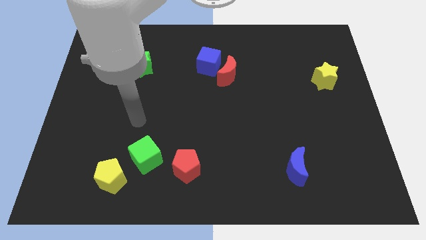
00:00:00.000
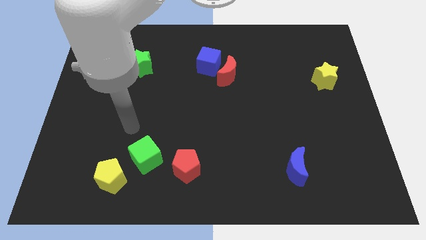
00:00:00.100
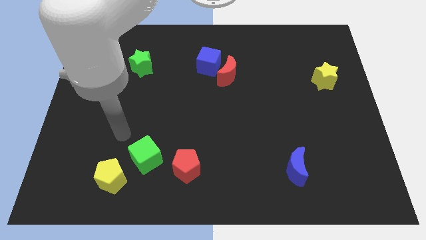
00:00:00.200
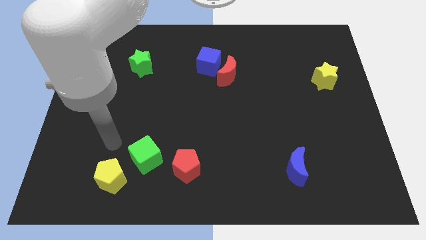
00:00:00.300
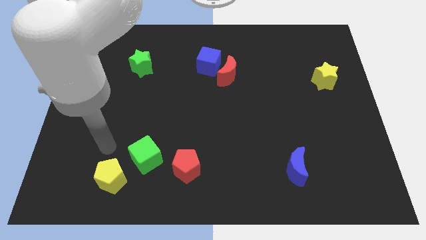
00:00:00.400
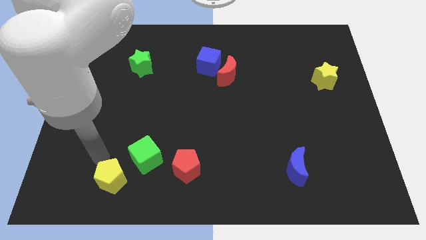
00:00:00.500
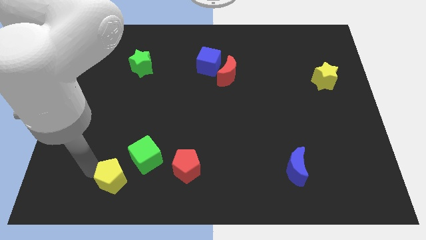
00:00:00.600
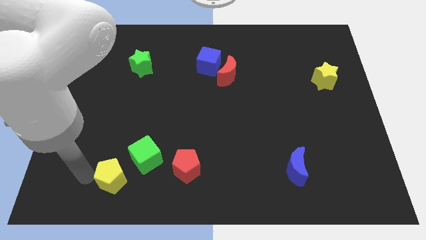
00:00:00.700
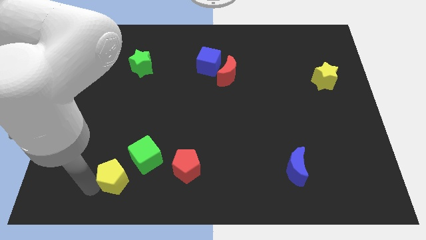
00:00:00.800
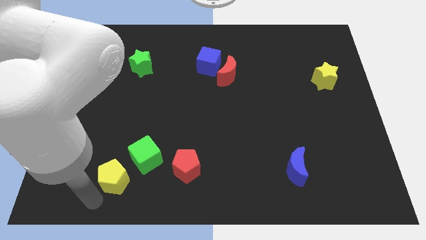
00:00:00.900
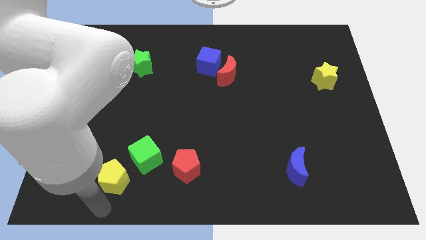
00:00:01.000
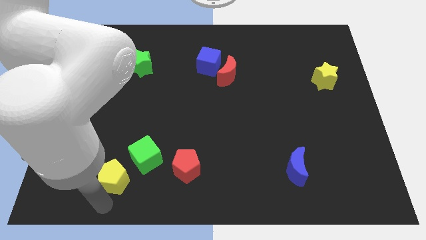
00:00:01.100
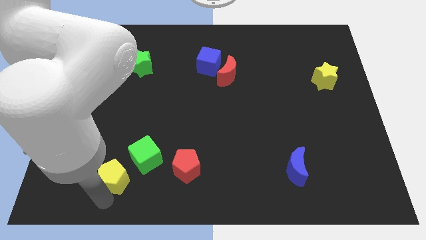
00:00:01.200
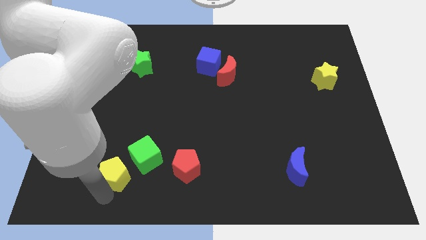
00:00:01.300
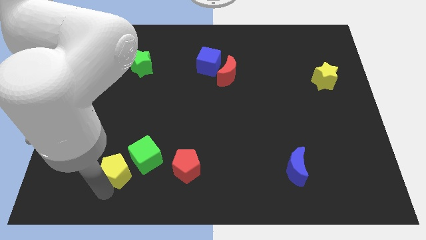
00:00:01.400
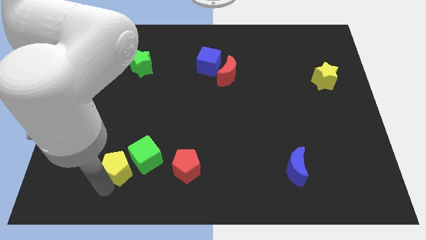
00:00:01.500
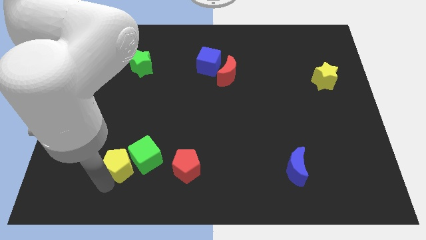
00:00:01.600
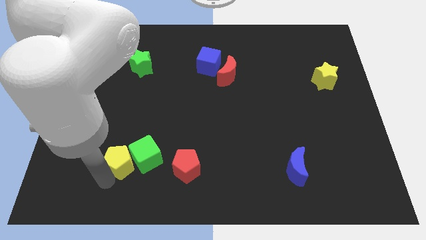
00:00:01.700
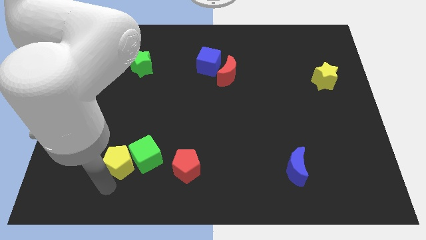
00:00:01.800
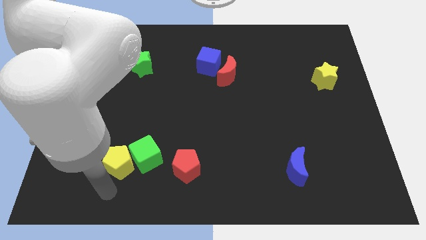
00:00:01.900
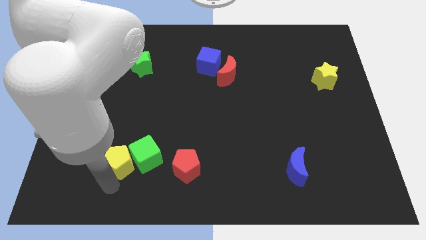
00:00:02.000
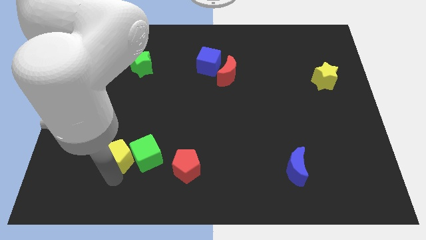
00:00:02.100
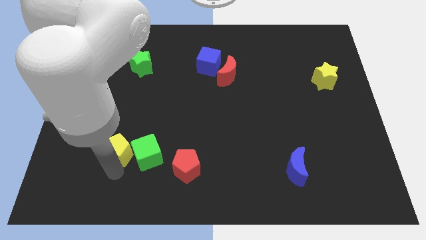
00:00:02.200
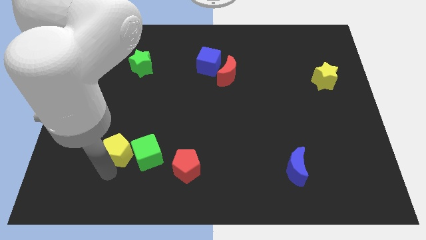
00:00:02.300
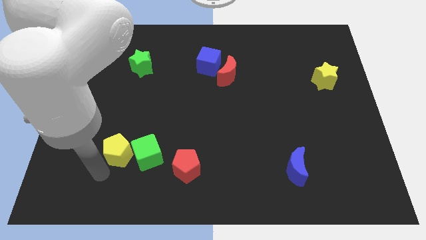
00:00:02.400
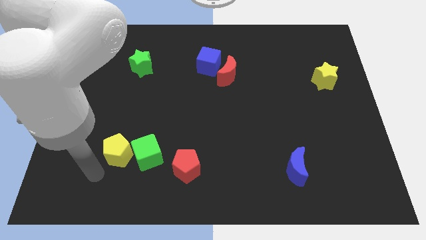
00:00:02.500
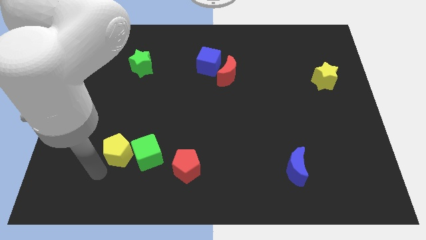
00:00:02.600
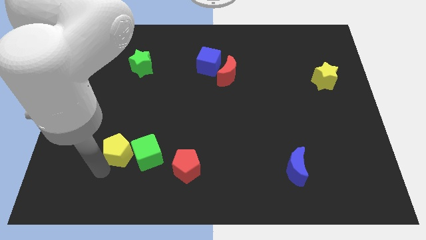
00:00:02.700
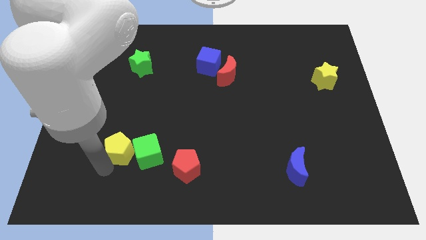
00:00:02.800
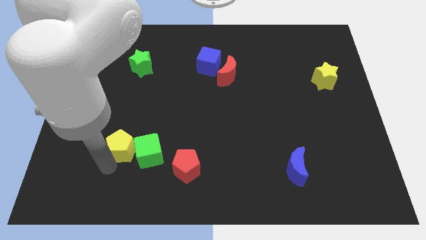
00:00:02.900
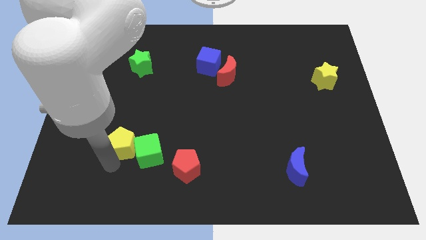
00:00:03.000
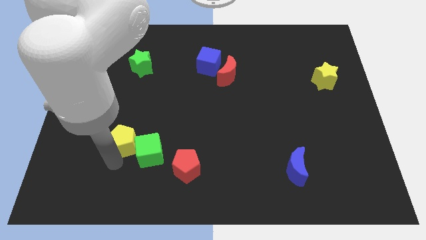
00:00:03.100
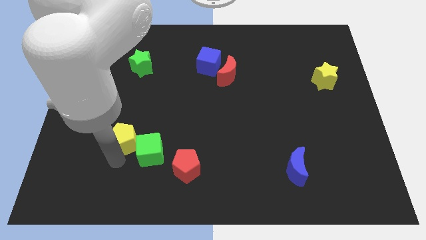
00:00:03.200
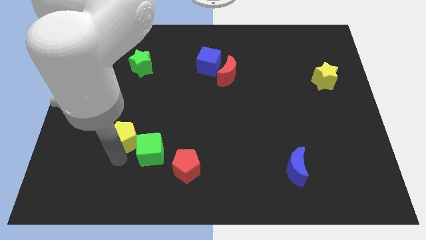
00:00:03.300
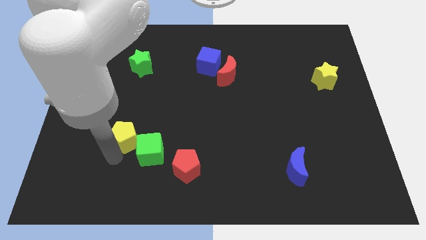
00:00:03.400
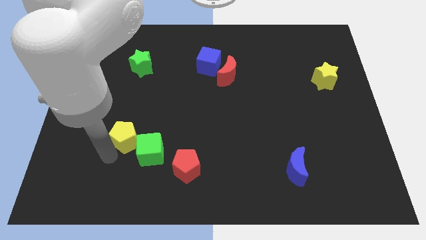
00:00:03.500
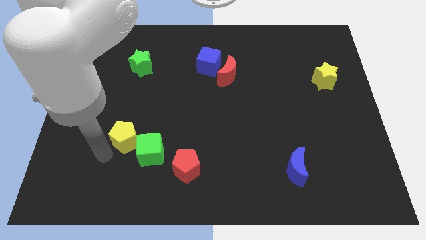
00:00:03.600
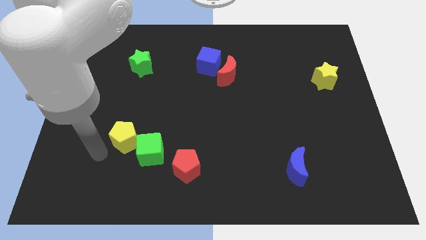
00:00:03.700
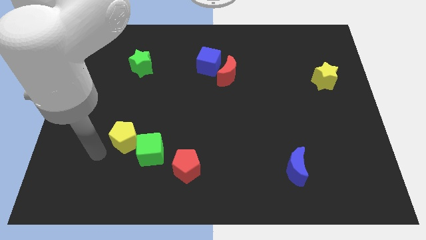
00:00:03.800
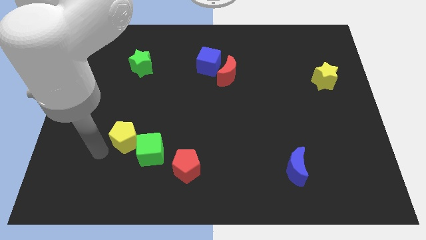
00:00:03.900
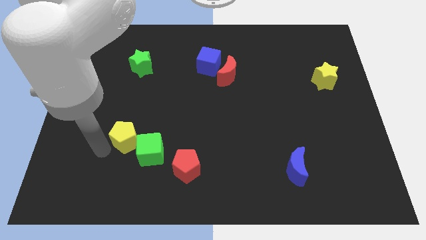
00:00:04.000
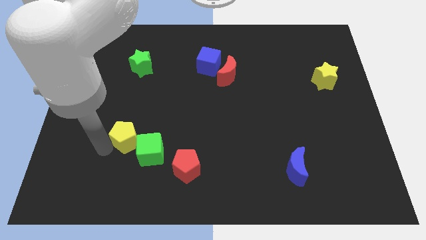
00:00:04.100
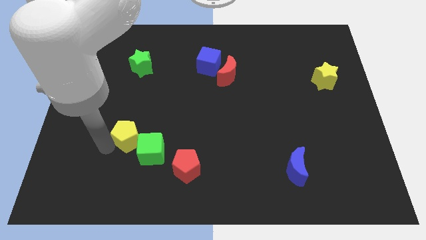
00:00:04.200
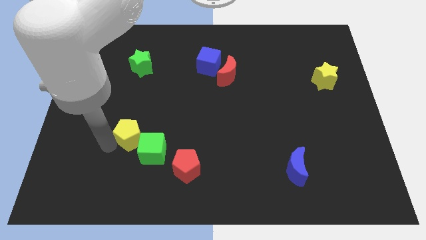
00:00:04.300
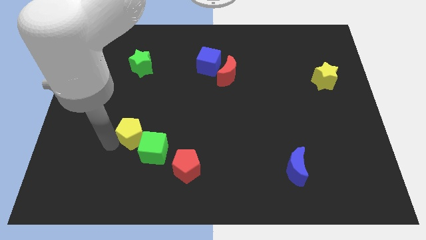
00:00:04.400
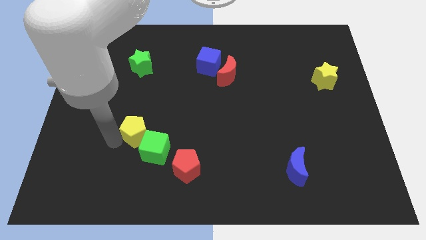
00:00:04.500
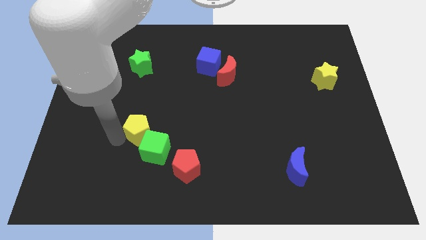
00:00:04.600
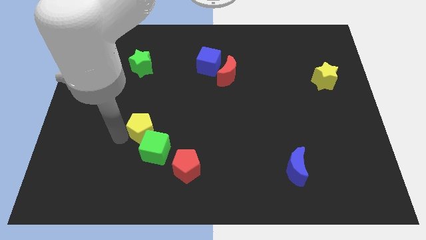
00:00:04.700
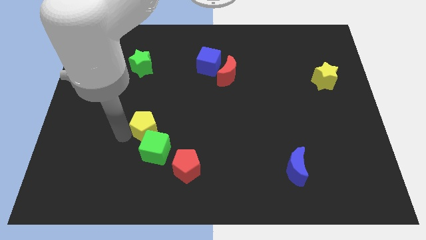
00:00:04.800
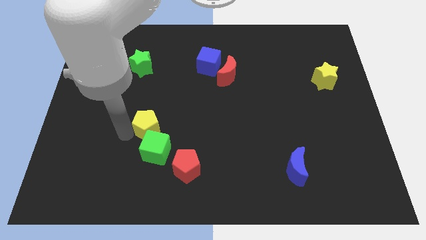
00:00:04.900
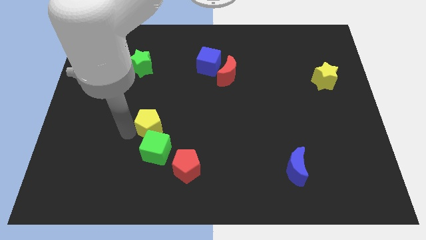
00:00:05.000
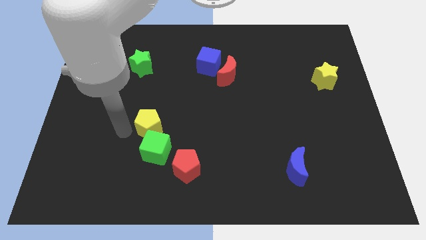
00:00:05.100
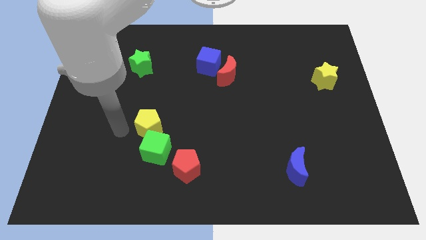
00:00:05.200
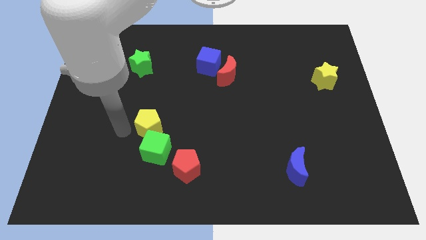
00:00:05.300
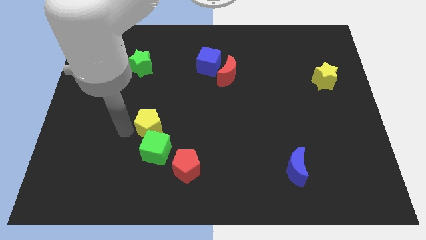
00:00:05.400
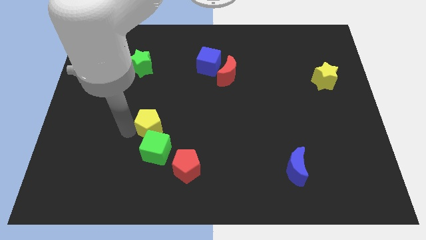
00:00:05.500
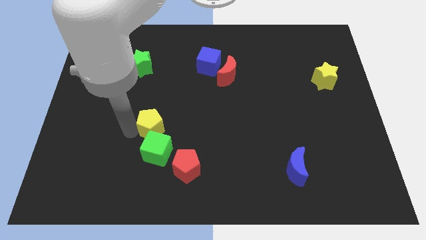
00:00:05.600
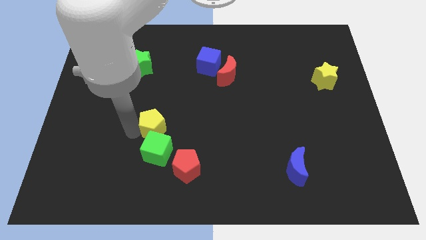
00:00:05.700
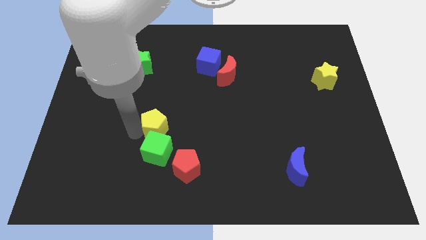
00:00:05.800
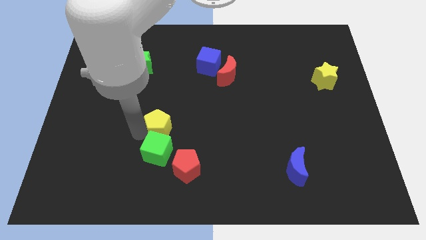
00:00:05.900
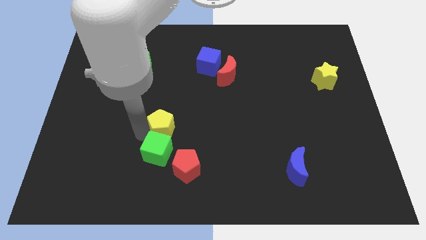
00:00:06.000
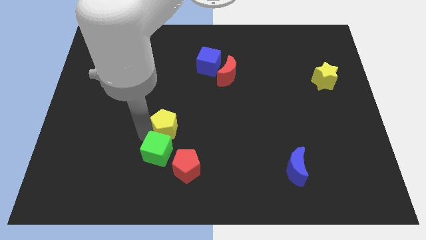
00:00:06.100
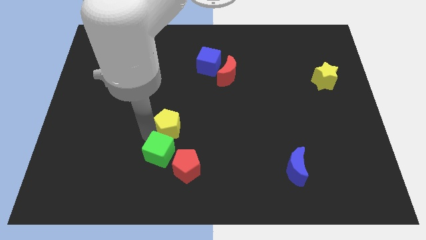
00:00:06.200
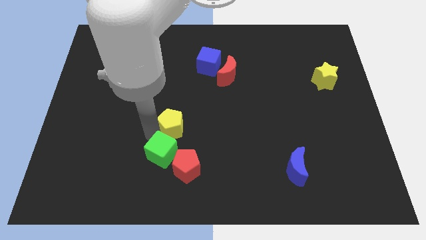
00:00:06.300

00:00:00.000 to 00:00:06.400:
move the yellow pentagon to the center of the board

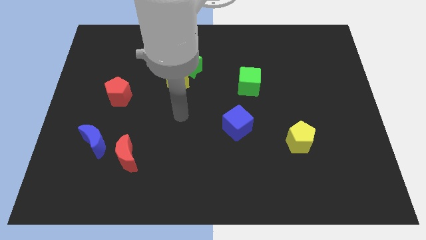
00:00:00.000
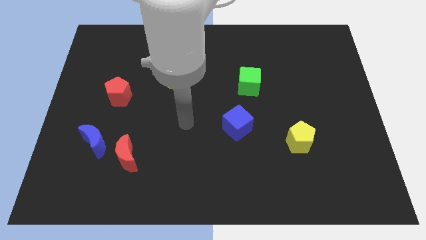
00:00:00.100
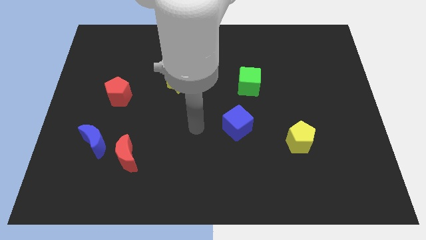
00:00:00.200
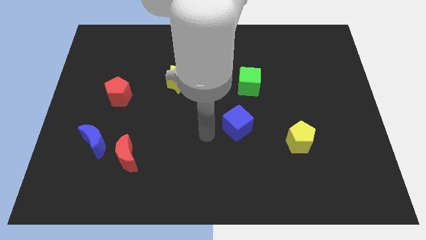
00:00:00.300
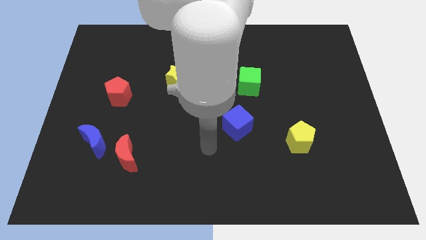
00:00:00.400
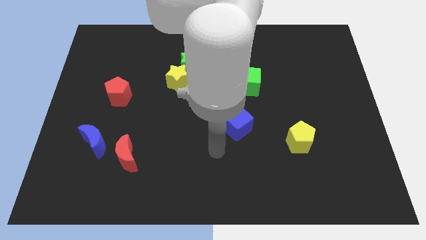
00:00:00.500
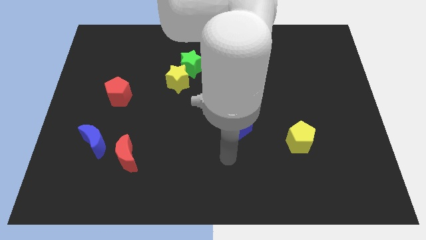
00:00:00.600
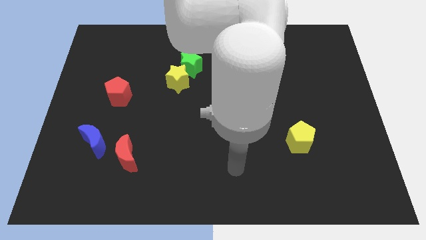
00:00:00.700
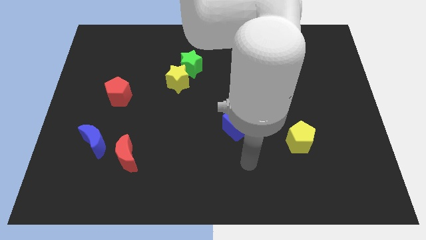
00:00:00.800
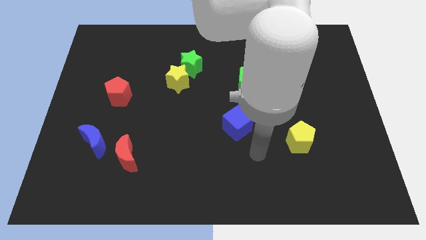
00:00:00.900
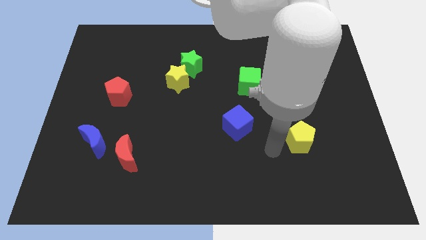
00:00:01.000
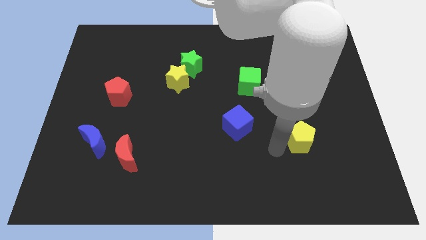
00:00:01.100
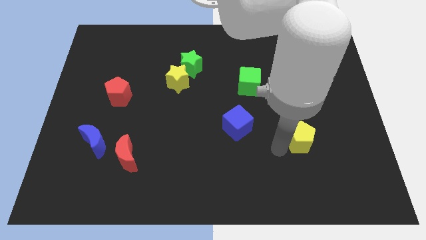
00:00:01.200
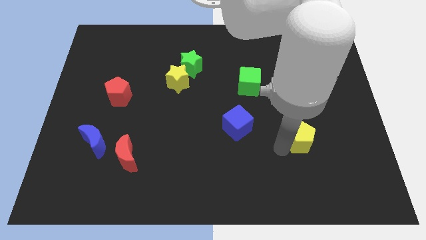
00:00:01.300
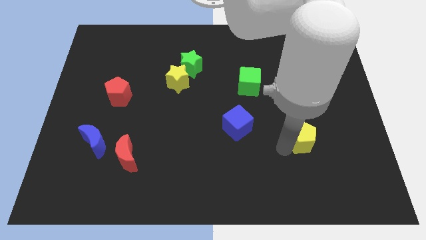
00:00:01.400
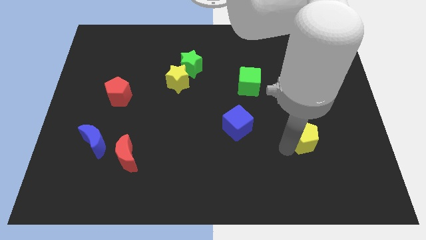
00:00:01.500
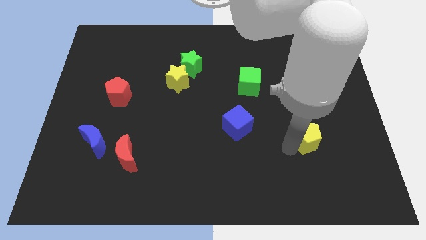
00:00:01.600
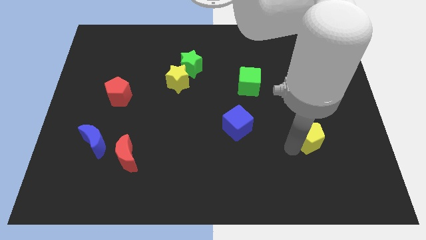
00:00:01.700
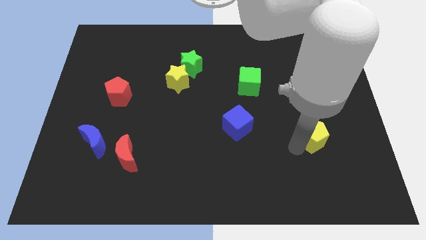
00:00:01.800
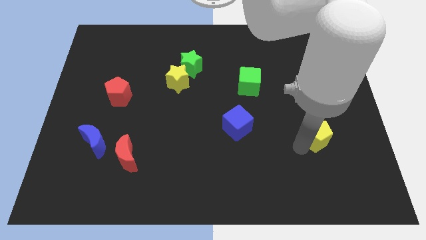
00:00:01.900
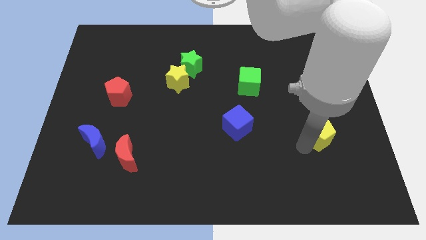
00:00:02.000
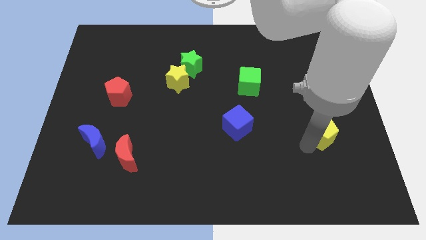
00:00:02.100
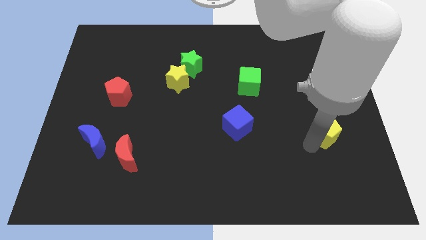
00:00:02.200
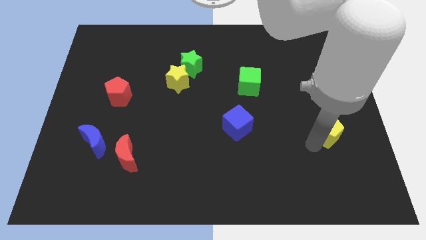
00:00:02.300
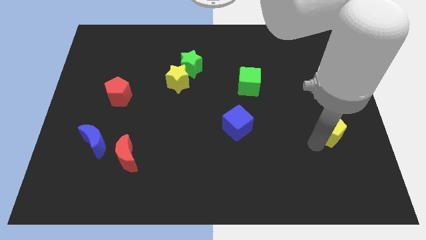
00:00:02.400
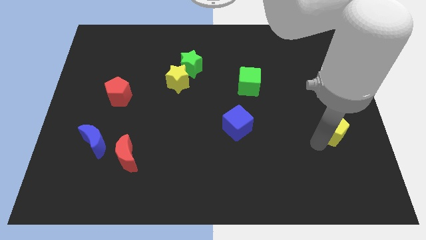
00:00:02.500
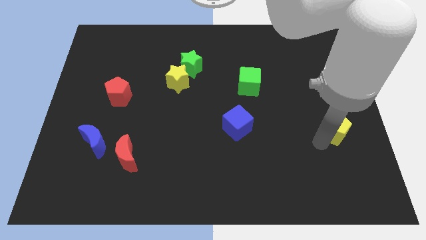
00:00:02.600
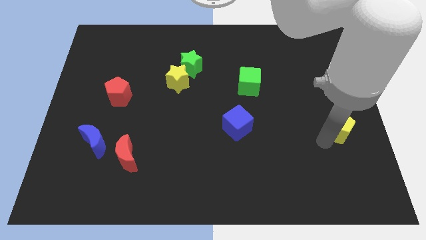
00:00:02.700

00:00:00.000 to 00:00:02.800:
push the yellow pentagon to the center right
